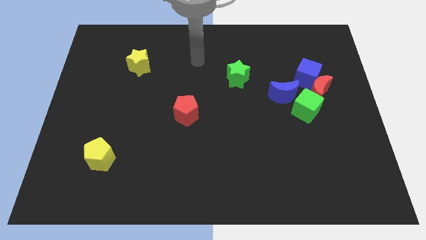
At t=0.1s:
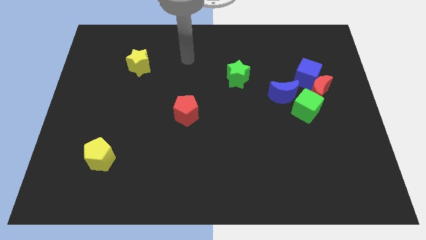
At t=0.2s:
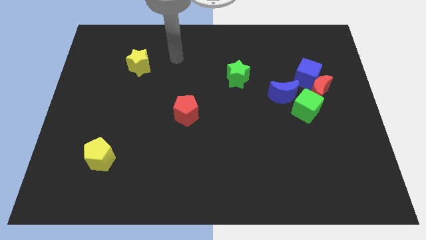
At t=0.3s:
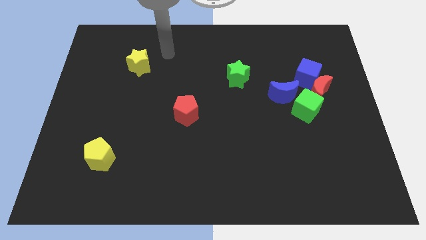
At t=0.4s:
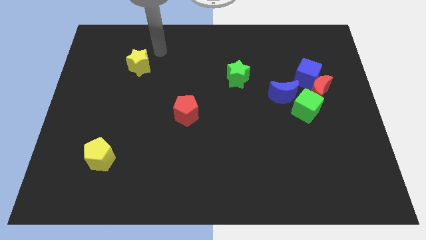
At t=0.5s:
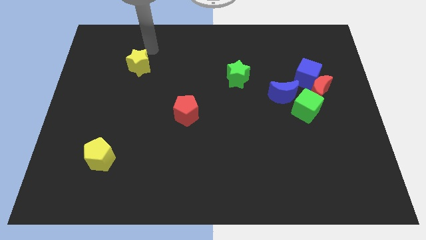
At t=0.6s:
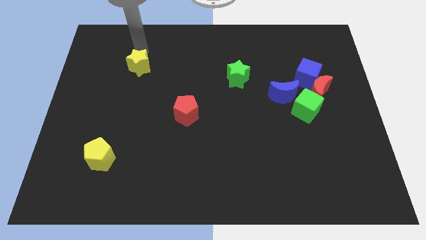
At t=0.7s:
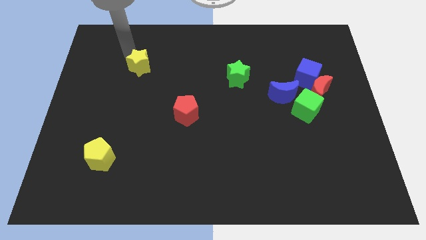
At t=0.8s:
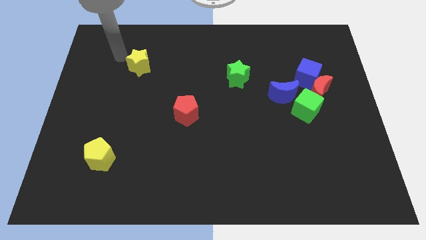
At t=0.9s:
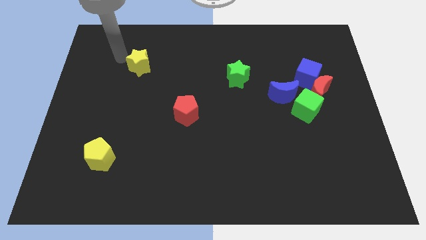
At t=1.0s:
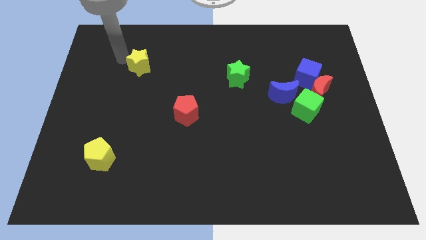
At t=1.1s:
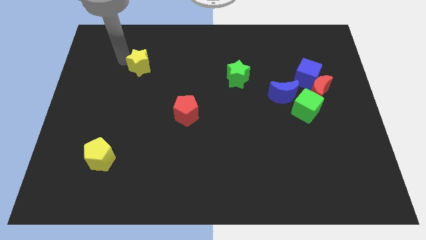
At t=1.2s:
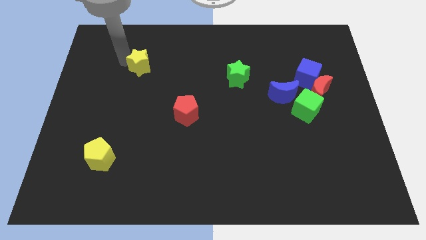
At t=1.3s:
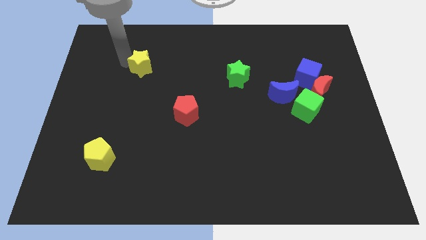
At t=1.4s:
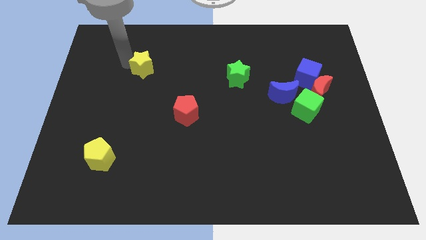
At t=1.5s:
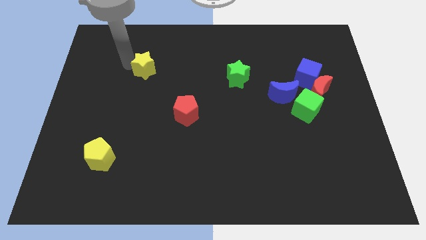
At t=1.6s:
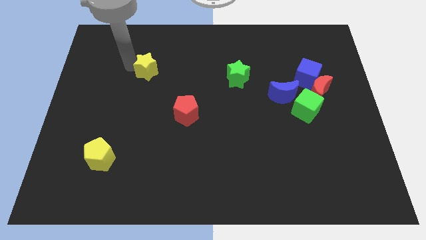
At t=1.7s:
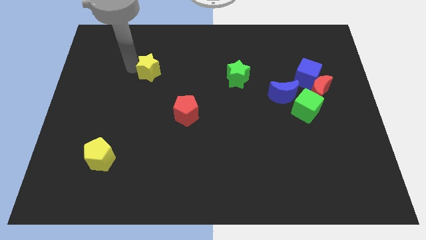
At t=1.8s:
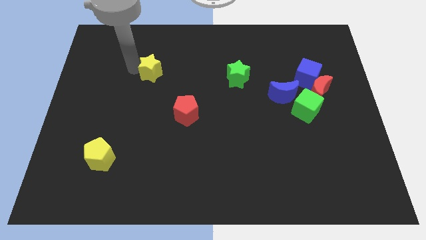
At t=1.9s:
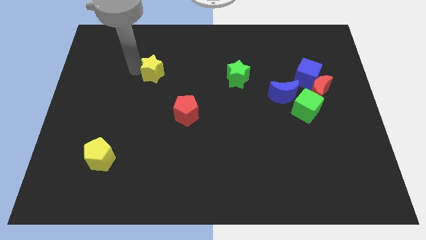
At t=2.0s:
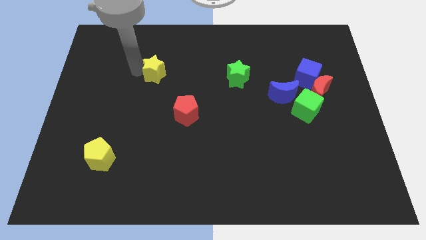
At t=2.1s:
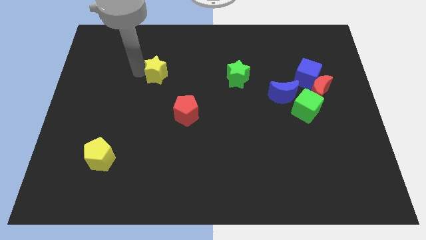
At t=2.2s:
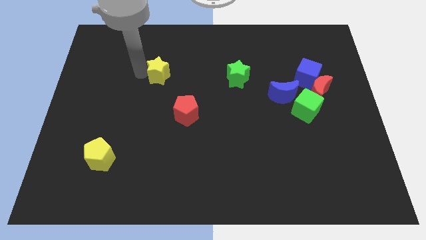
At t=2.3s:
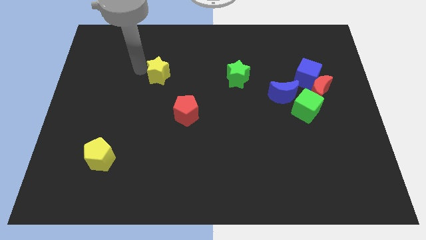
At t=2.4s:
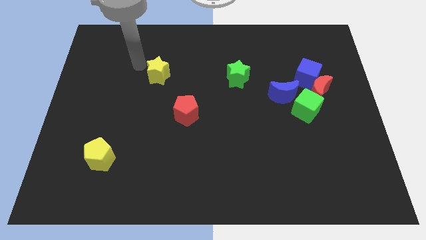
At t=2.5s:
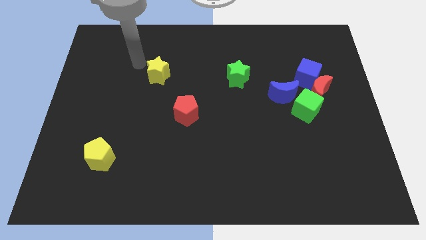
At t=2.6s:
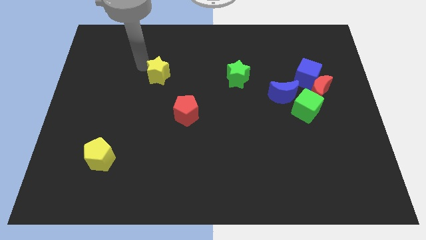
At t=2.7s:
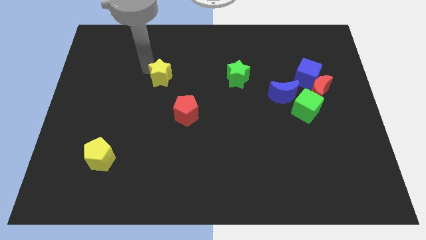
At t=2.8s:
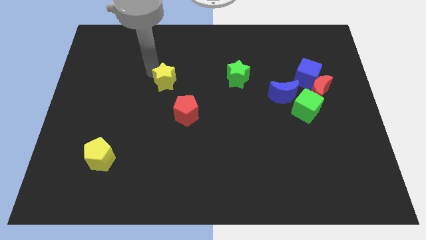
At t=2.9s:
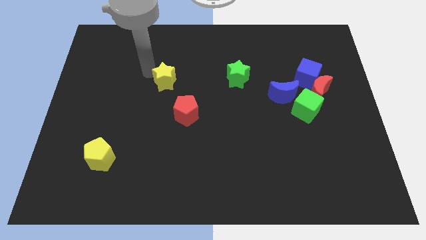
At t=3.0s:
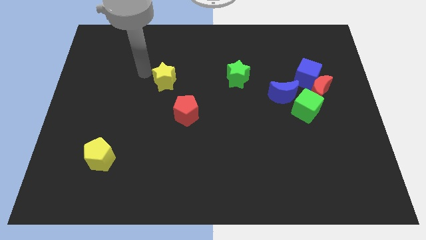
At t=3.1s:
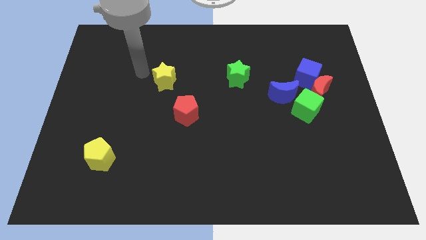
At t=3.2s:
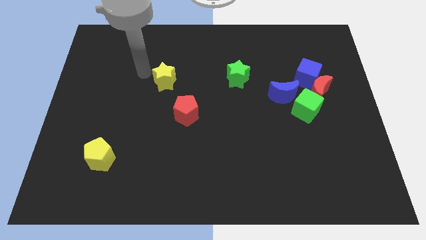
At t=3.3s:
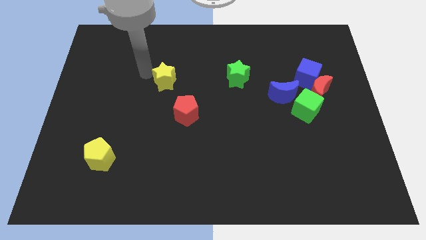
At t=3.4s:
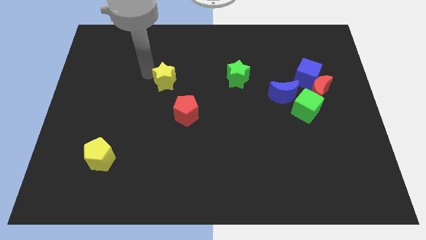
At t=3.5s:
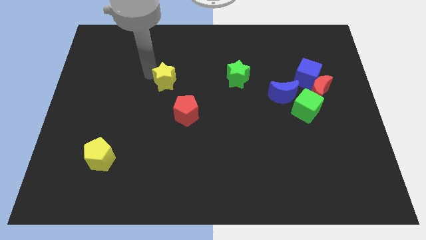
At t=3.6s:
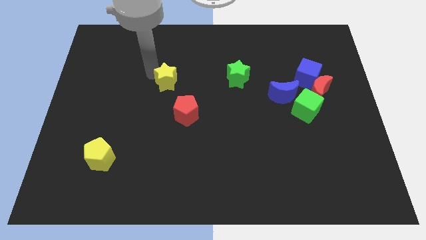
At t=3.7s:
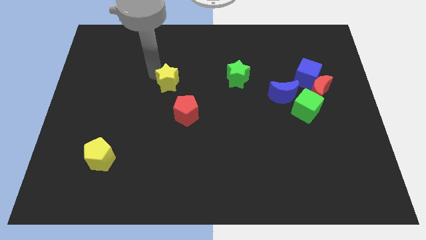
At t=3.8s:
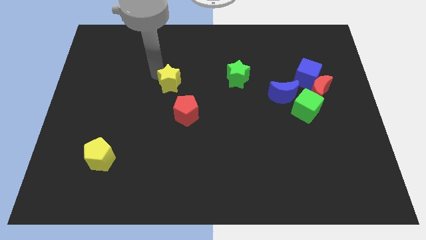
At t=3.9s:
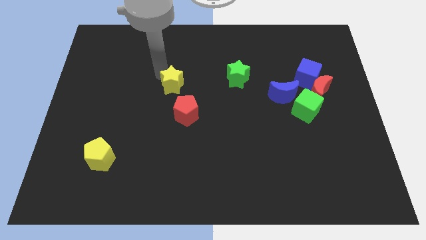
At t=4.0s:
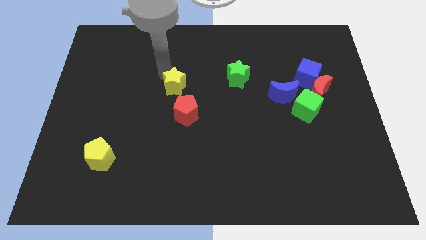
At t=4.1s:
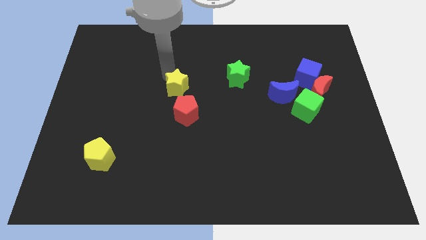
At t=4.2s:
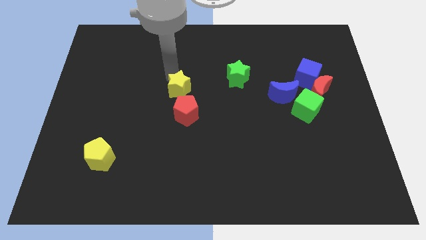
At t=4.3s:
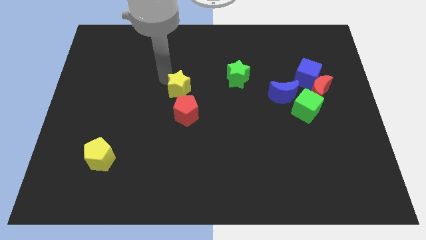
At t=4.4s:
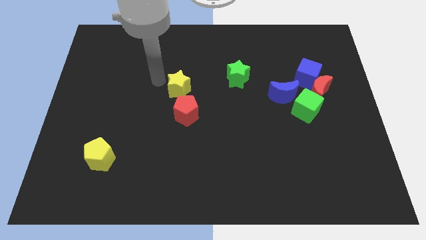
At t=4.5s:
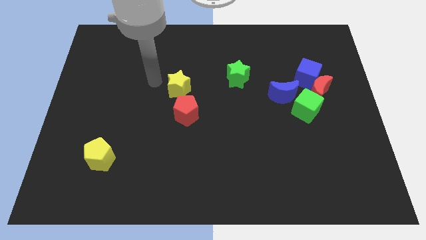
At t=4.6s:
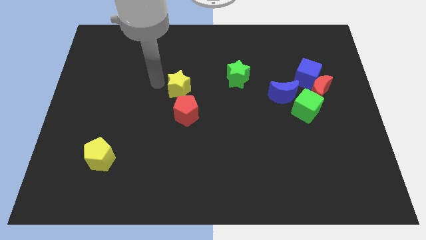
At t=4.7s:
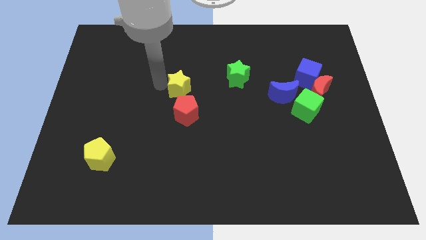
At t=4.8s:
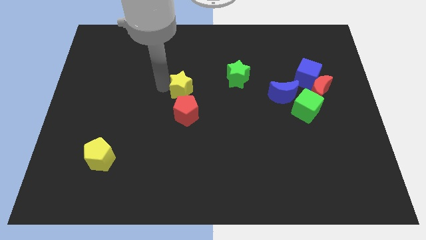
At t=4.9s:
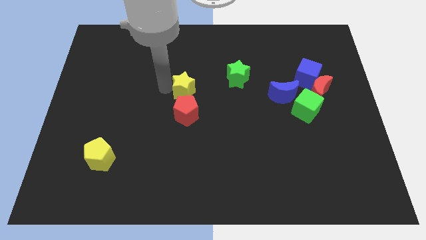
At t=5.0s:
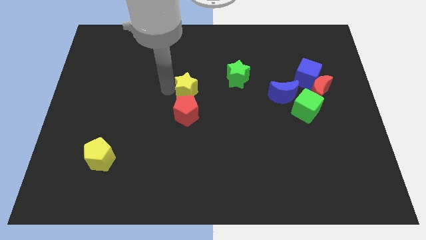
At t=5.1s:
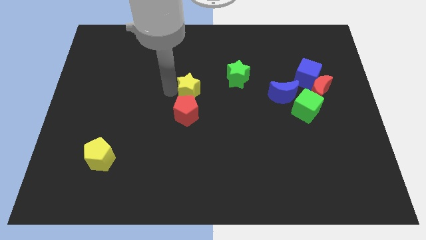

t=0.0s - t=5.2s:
slide the yellow star to the top right side of the red pentagon

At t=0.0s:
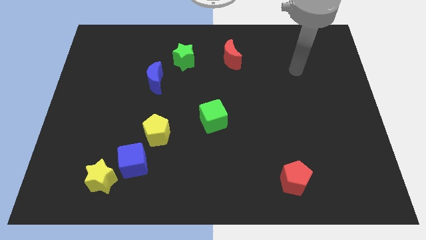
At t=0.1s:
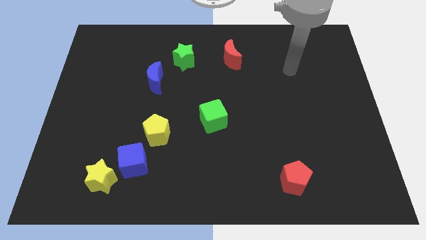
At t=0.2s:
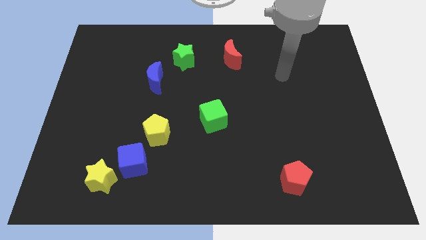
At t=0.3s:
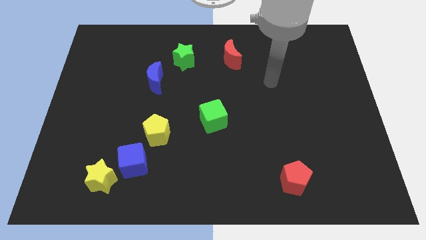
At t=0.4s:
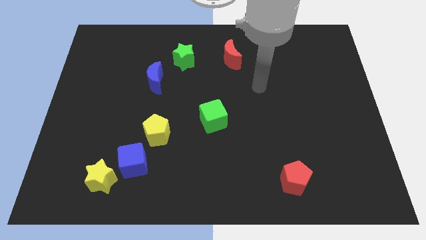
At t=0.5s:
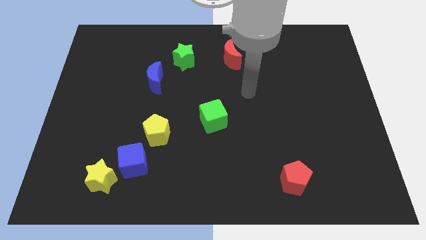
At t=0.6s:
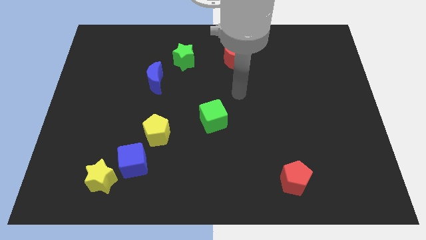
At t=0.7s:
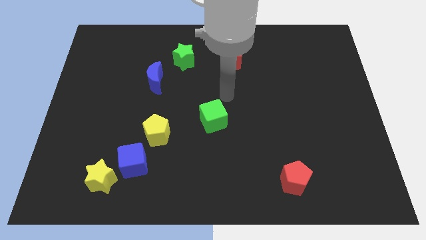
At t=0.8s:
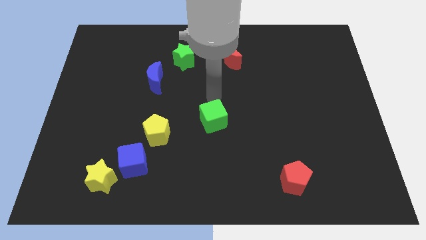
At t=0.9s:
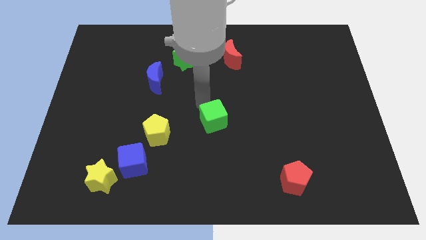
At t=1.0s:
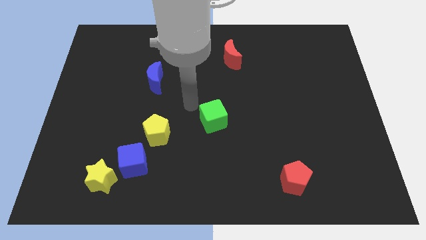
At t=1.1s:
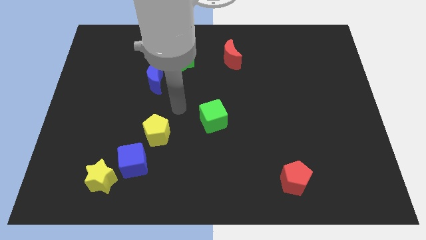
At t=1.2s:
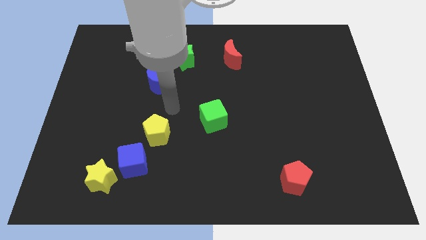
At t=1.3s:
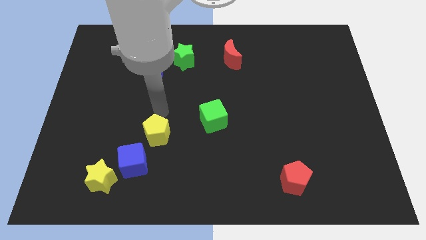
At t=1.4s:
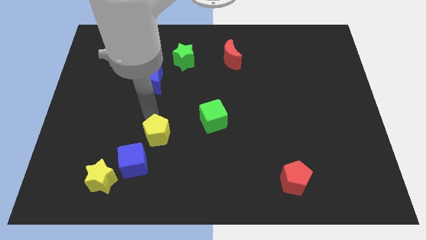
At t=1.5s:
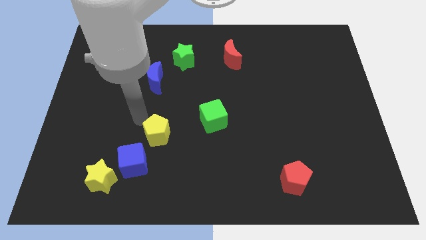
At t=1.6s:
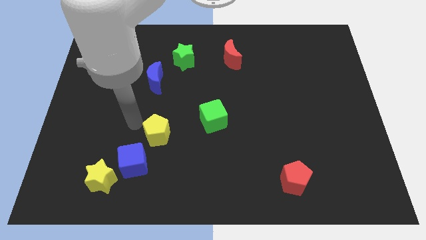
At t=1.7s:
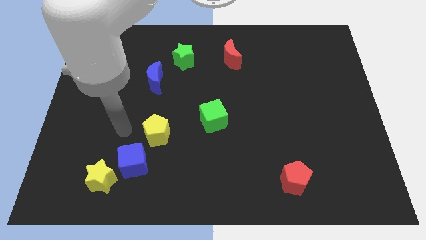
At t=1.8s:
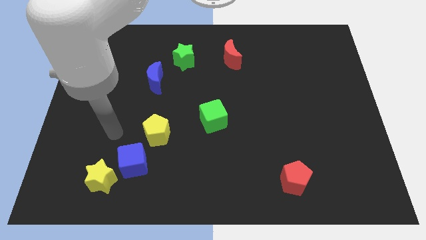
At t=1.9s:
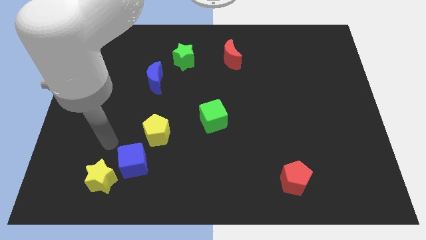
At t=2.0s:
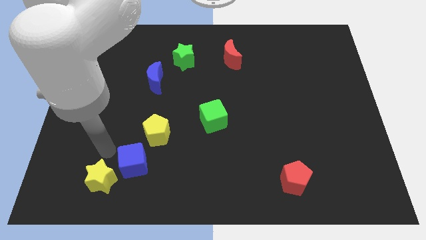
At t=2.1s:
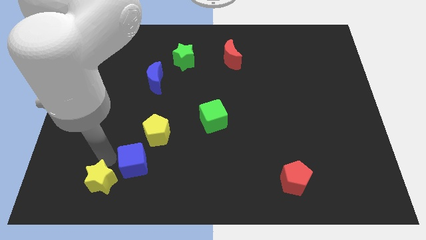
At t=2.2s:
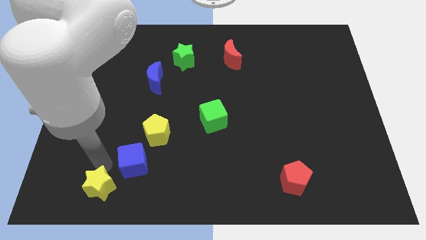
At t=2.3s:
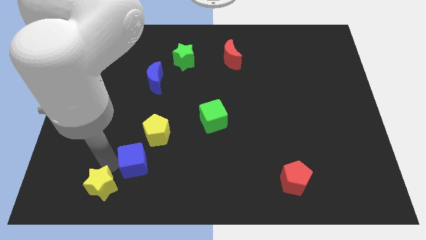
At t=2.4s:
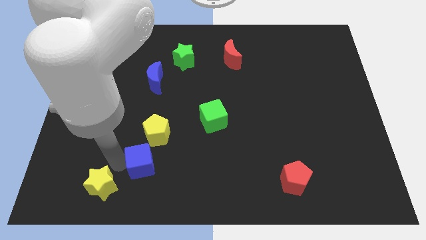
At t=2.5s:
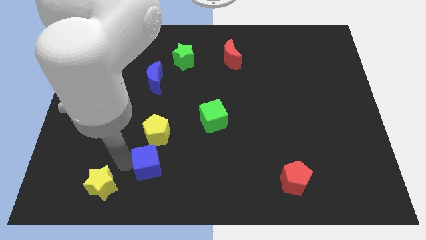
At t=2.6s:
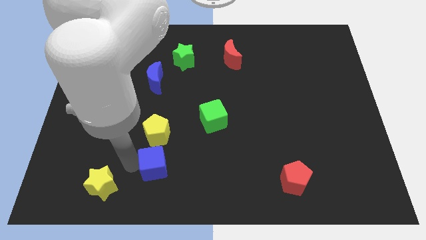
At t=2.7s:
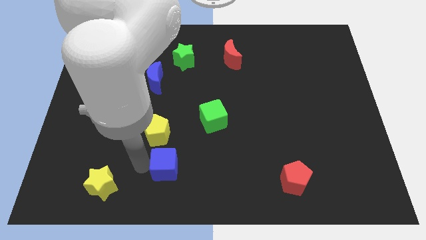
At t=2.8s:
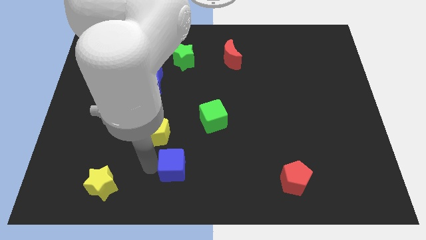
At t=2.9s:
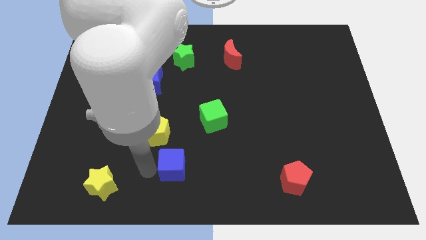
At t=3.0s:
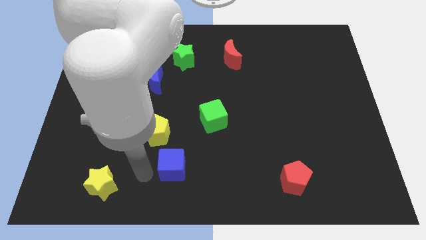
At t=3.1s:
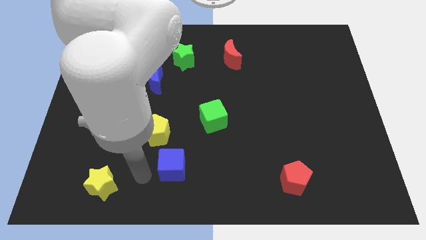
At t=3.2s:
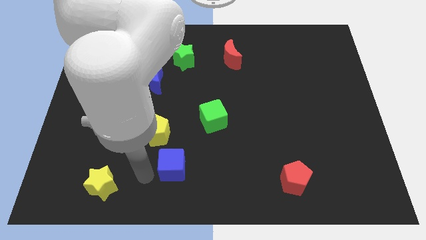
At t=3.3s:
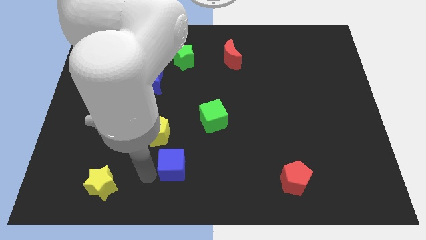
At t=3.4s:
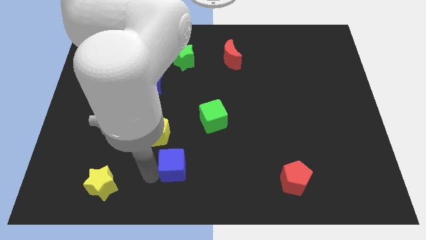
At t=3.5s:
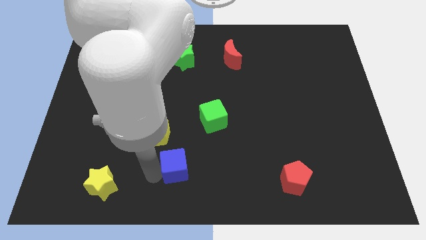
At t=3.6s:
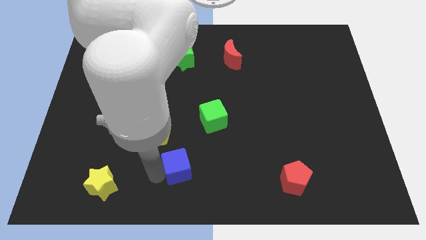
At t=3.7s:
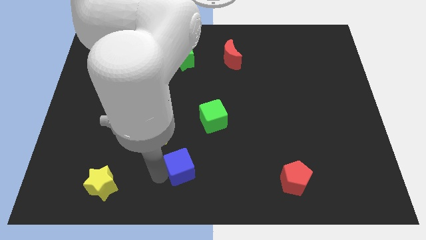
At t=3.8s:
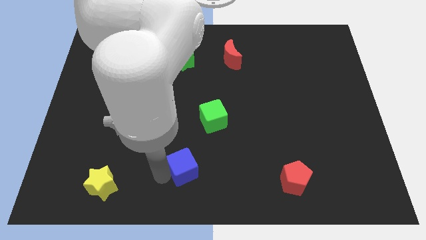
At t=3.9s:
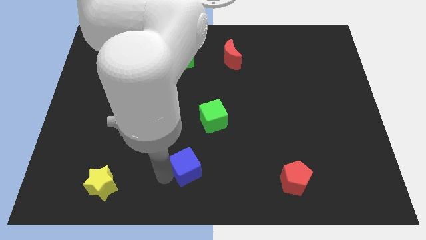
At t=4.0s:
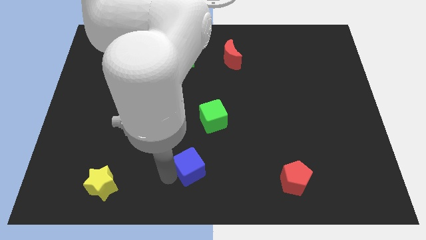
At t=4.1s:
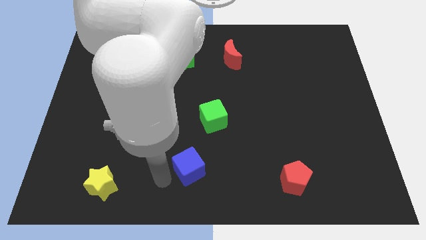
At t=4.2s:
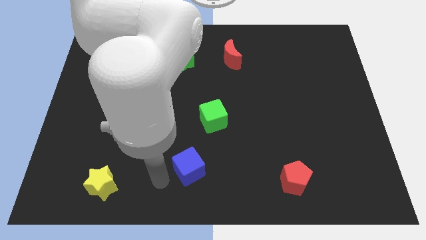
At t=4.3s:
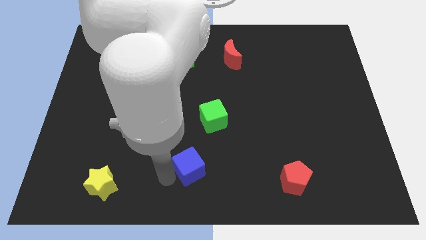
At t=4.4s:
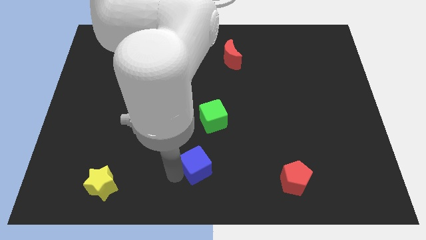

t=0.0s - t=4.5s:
put the blue cube below the green cube
